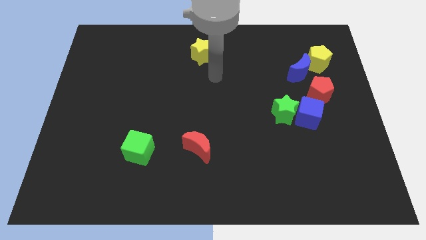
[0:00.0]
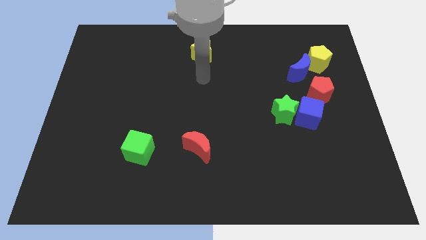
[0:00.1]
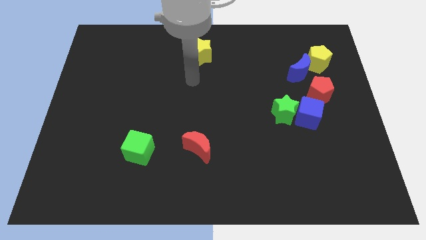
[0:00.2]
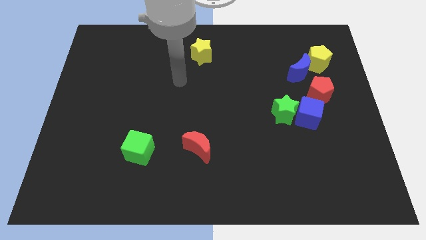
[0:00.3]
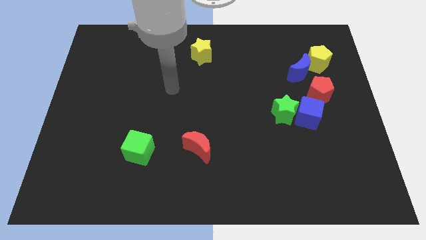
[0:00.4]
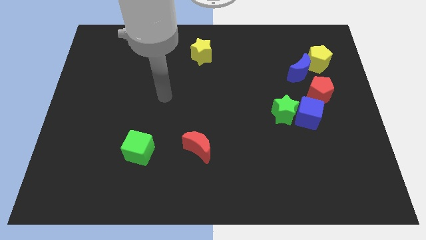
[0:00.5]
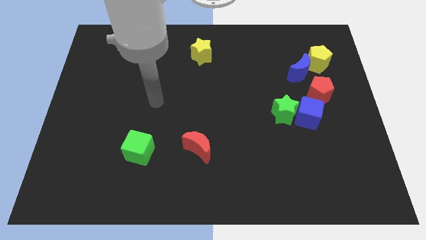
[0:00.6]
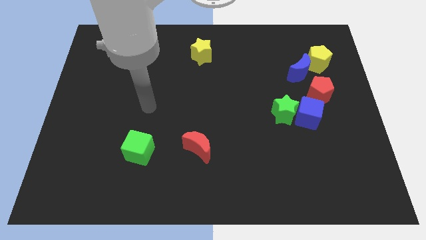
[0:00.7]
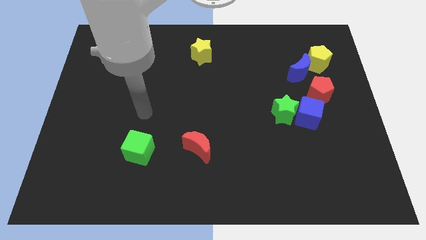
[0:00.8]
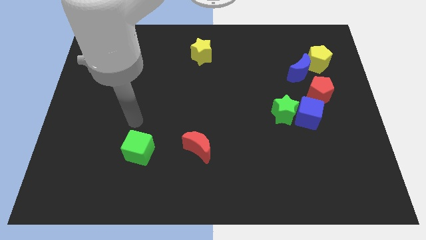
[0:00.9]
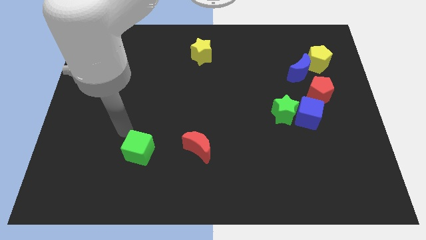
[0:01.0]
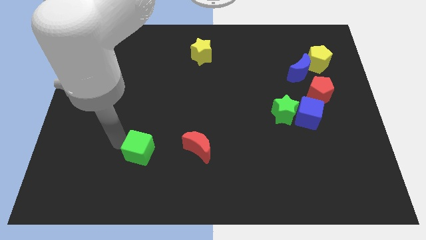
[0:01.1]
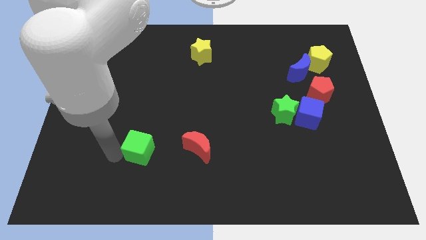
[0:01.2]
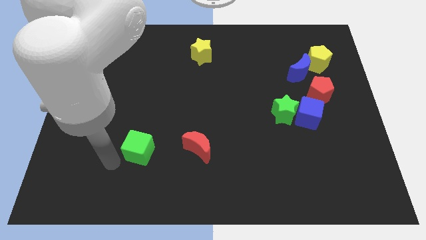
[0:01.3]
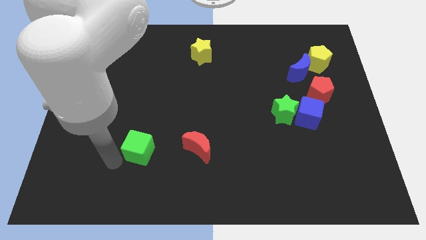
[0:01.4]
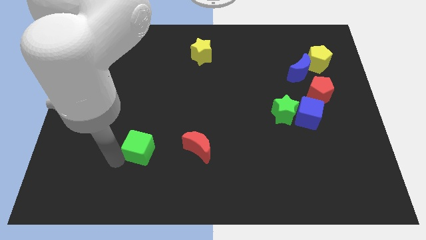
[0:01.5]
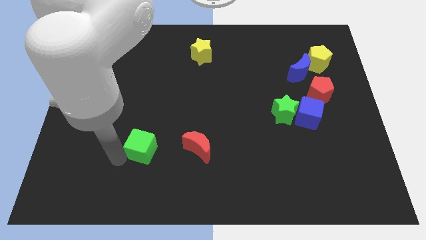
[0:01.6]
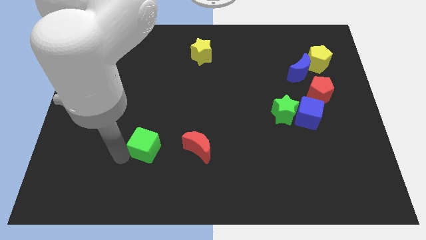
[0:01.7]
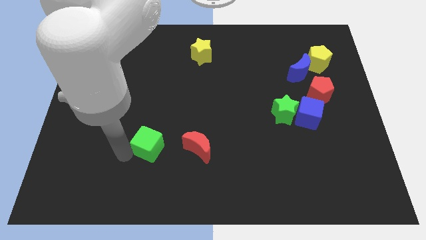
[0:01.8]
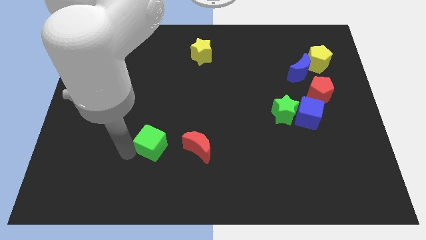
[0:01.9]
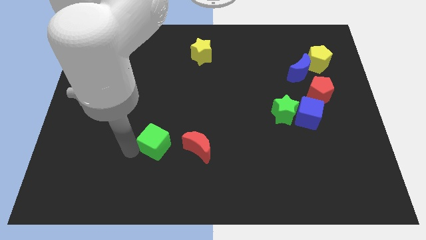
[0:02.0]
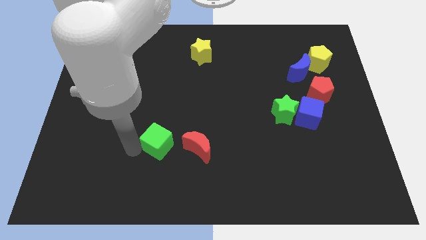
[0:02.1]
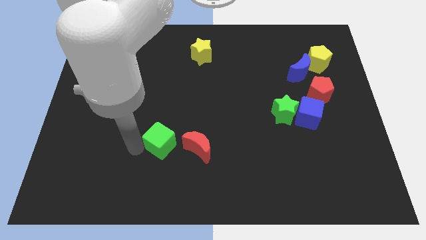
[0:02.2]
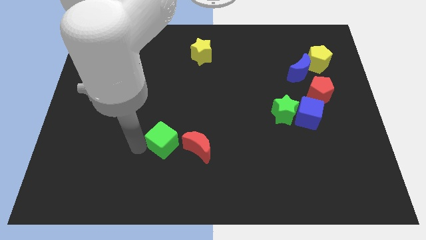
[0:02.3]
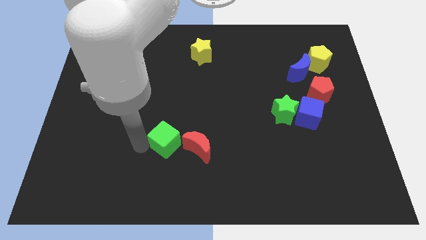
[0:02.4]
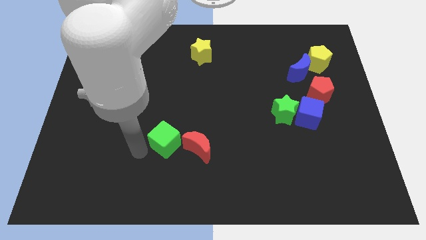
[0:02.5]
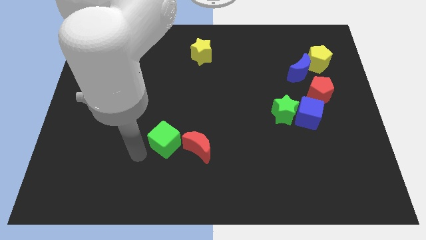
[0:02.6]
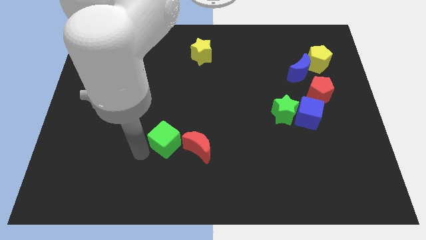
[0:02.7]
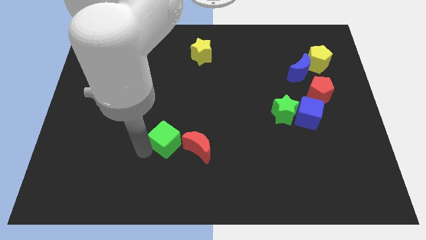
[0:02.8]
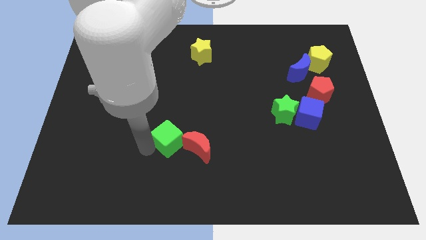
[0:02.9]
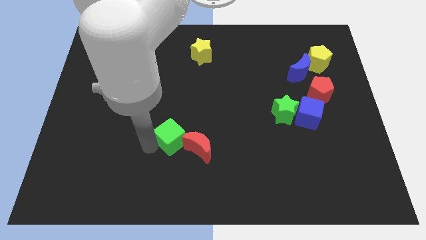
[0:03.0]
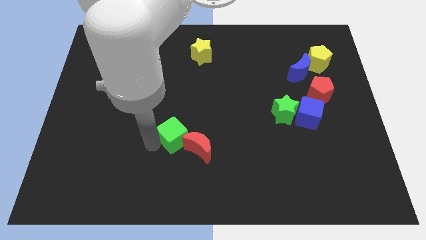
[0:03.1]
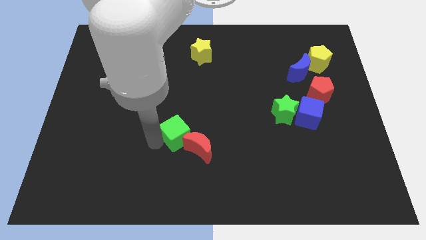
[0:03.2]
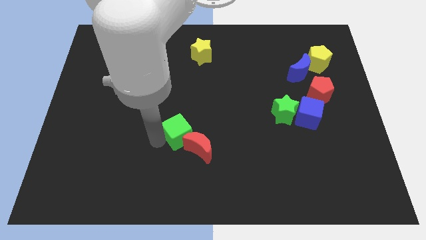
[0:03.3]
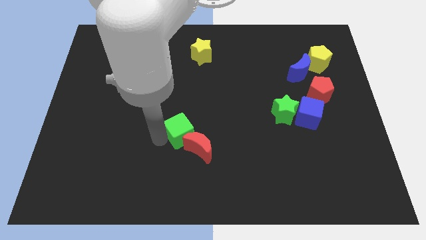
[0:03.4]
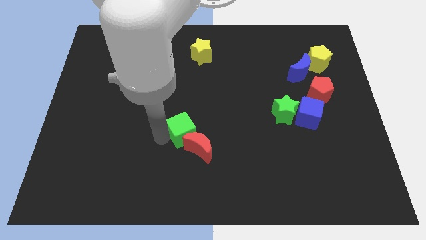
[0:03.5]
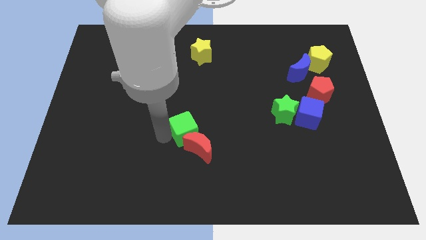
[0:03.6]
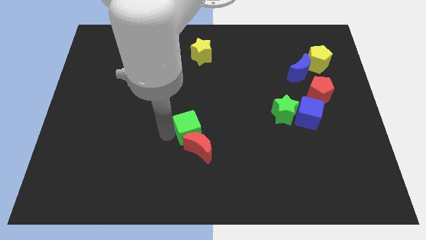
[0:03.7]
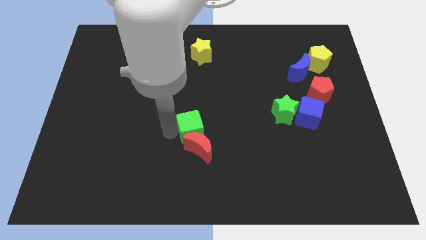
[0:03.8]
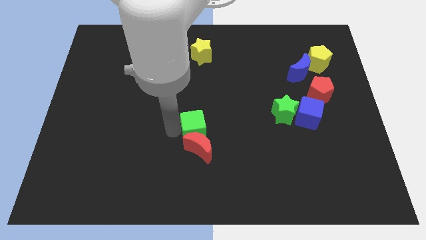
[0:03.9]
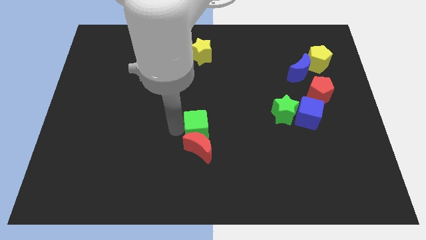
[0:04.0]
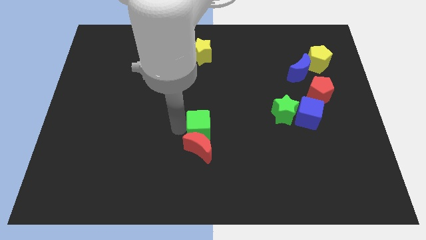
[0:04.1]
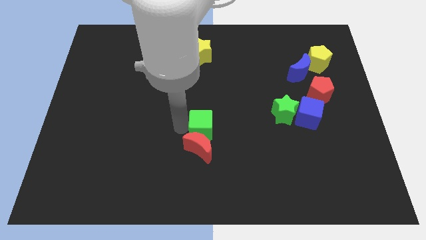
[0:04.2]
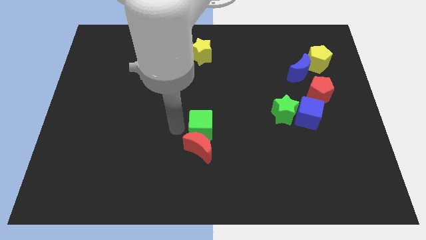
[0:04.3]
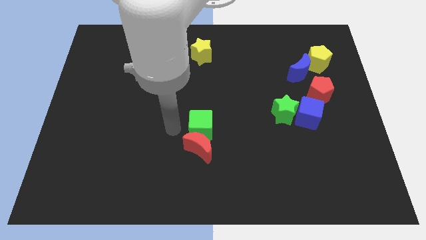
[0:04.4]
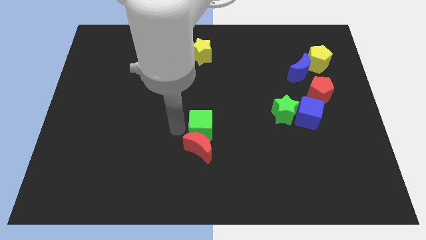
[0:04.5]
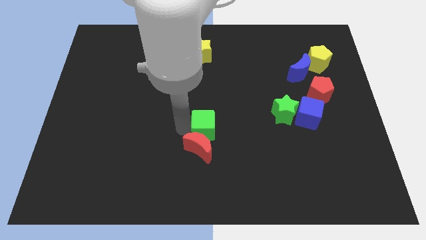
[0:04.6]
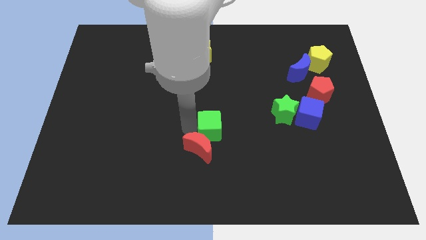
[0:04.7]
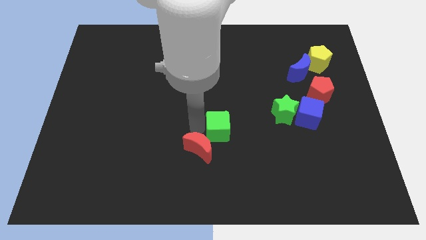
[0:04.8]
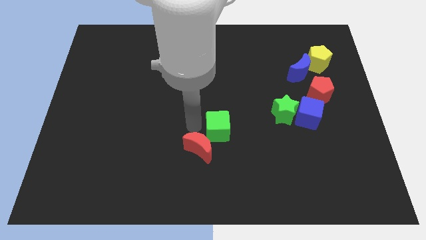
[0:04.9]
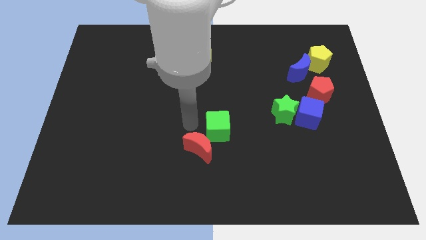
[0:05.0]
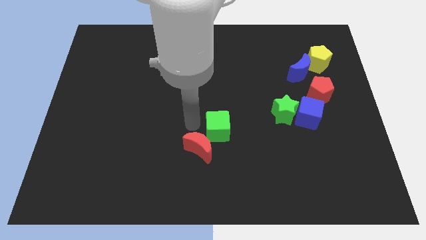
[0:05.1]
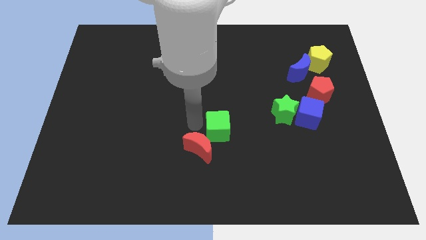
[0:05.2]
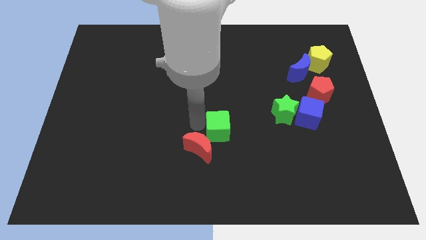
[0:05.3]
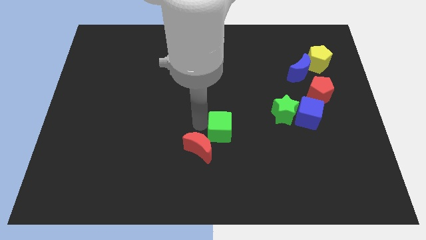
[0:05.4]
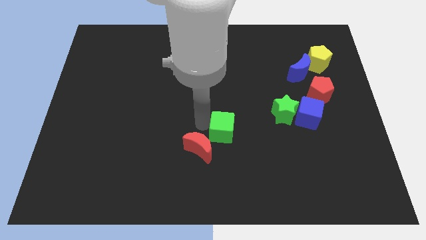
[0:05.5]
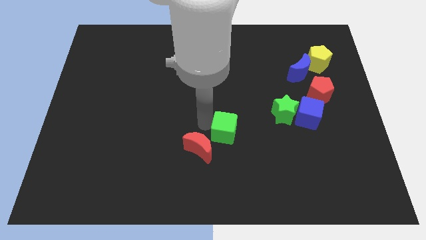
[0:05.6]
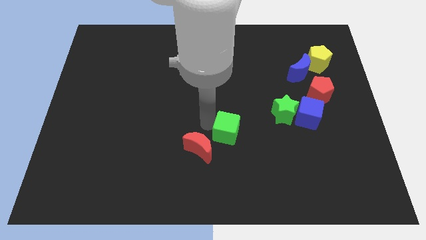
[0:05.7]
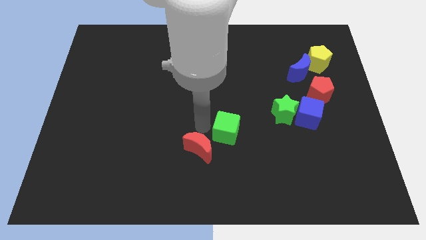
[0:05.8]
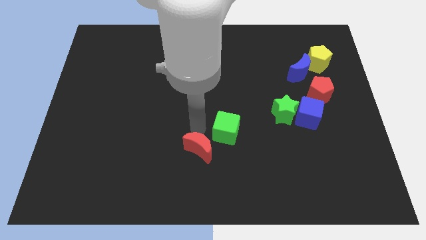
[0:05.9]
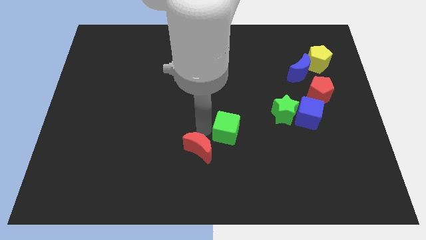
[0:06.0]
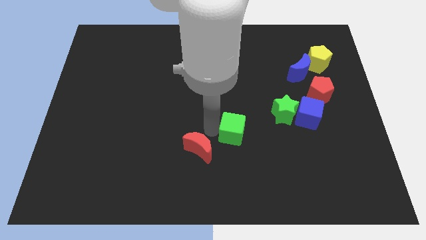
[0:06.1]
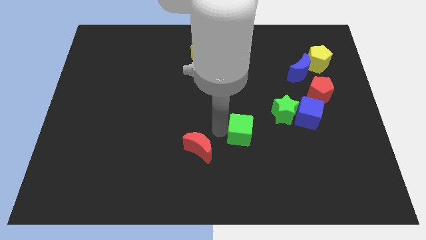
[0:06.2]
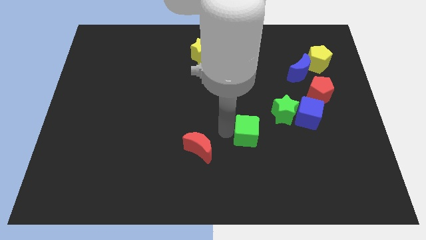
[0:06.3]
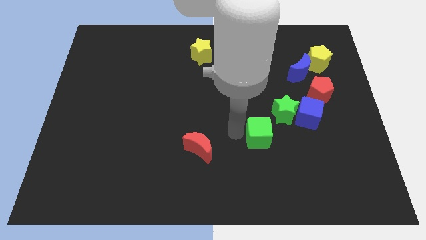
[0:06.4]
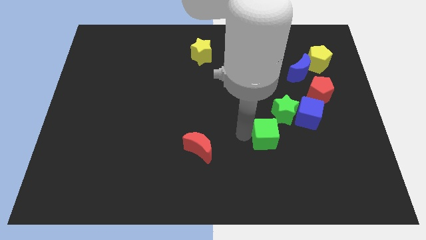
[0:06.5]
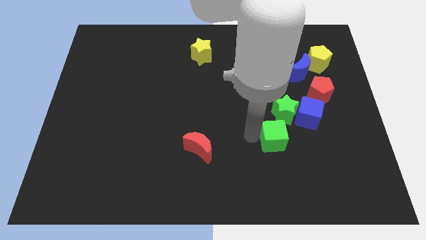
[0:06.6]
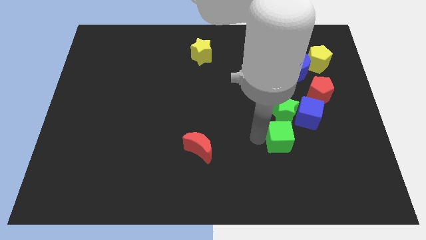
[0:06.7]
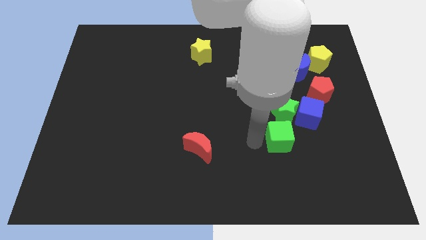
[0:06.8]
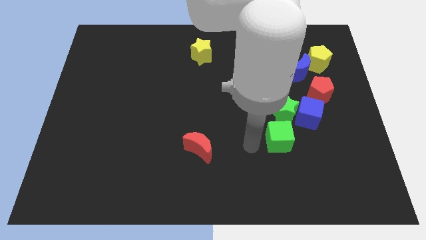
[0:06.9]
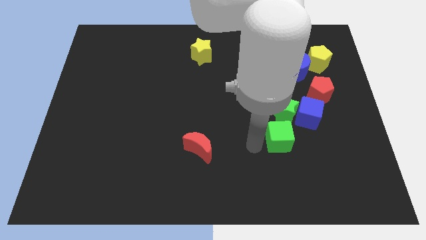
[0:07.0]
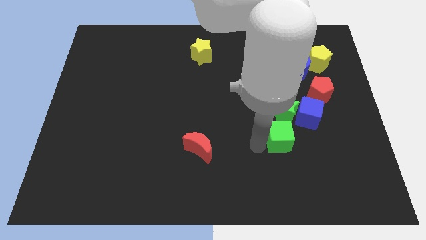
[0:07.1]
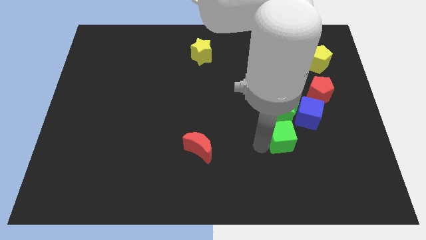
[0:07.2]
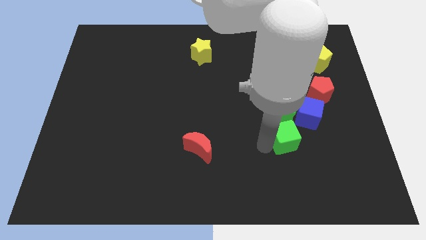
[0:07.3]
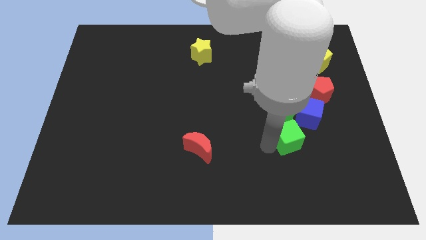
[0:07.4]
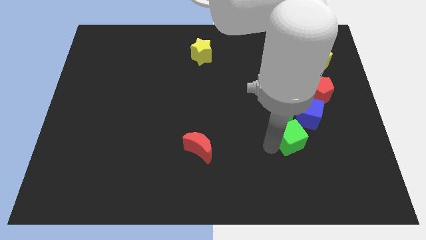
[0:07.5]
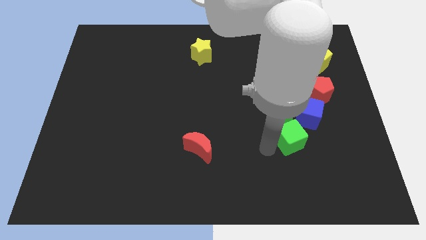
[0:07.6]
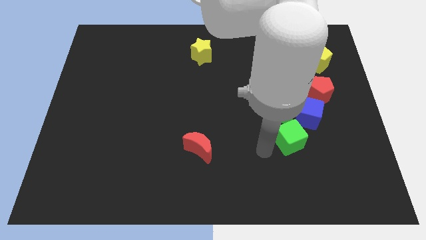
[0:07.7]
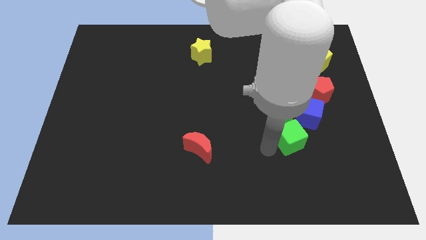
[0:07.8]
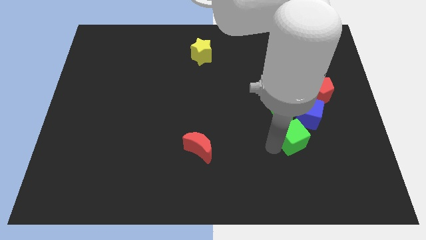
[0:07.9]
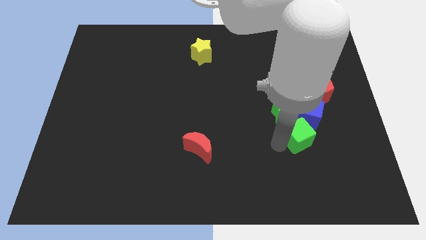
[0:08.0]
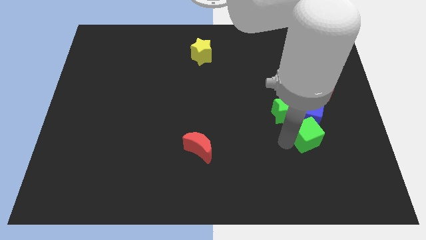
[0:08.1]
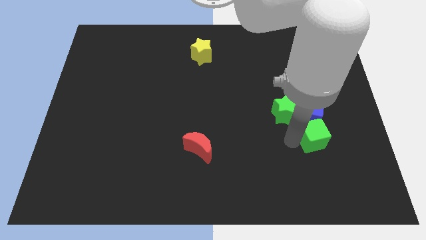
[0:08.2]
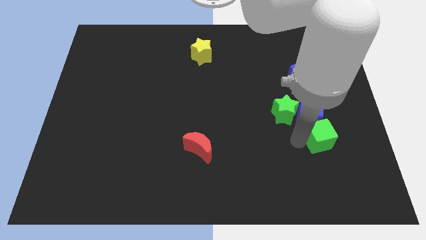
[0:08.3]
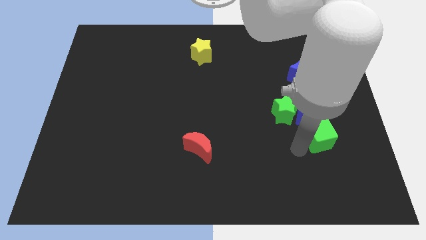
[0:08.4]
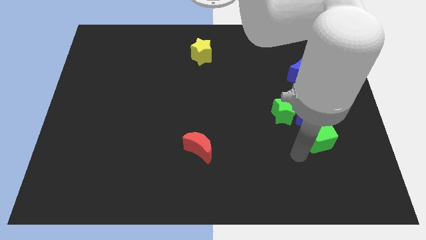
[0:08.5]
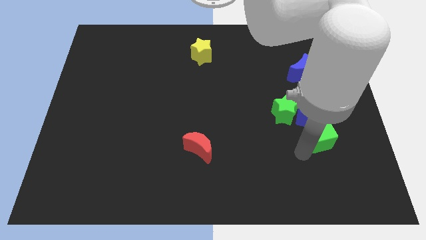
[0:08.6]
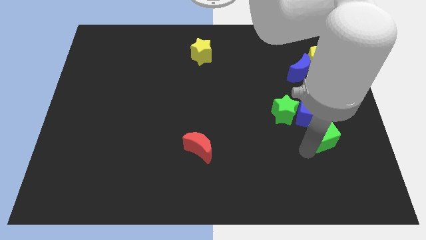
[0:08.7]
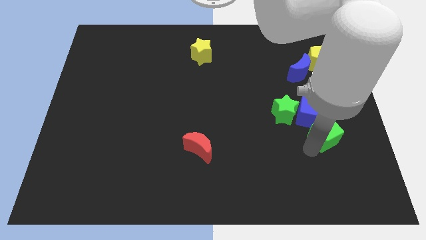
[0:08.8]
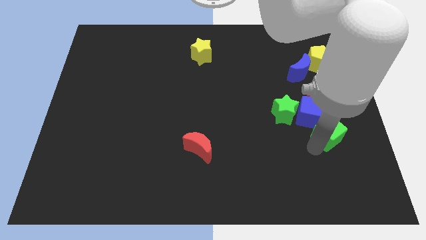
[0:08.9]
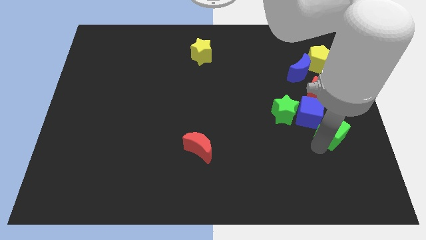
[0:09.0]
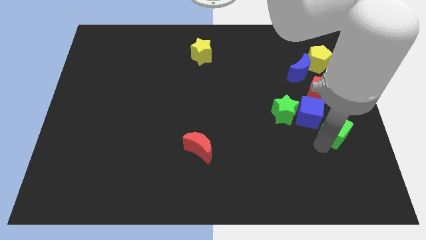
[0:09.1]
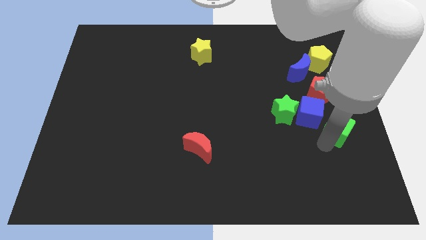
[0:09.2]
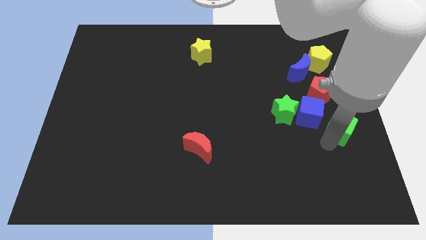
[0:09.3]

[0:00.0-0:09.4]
put the green cube to the right side
